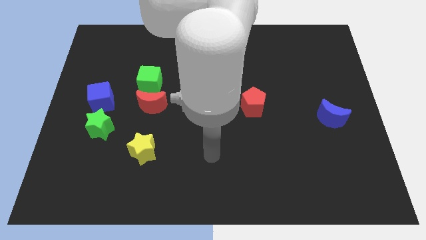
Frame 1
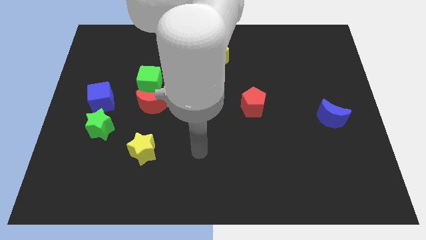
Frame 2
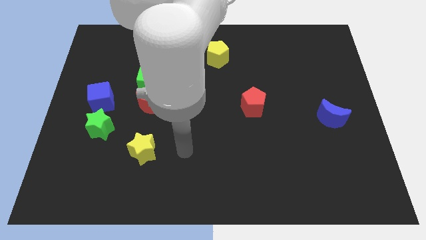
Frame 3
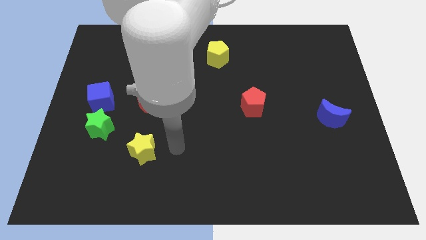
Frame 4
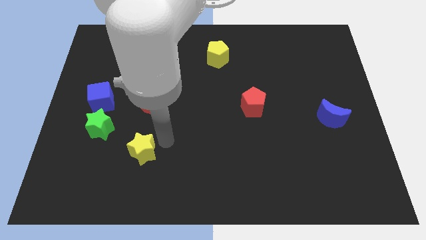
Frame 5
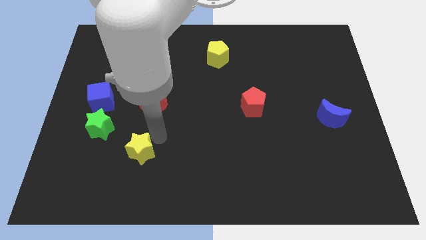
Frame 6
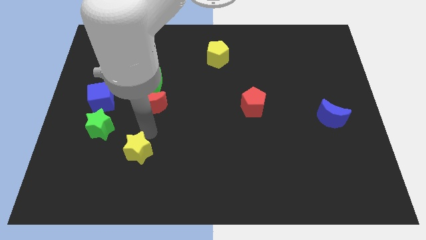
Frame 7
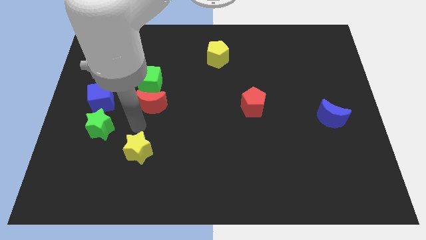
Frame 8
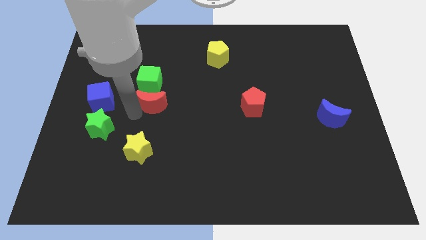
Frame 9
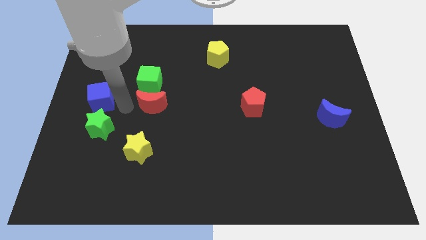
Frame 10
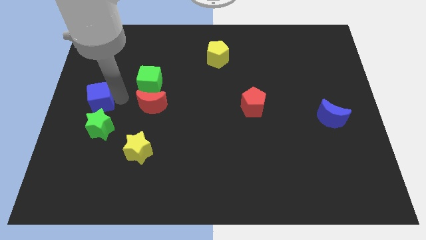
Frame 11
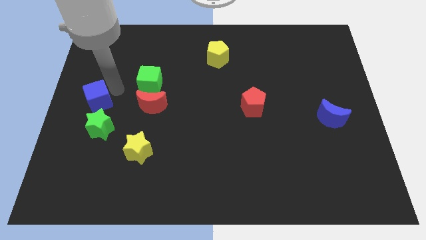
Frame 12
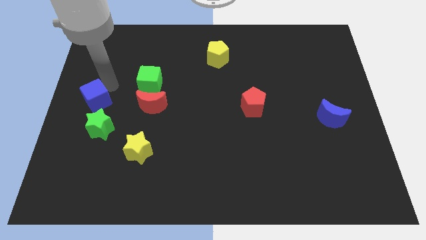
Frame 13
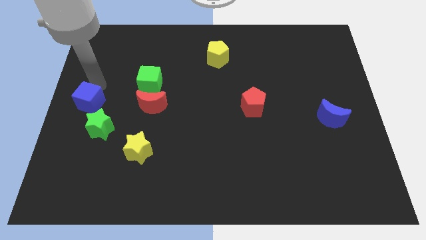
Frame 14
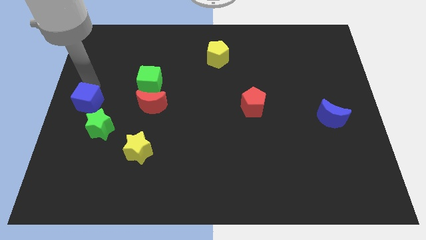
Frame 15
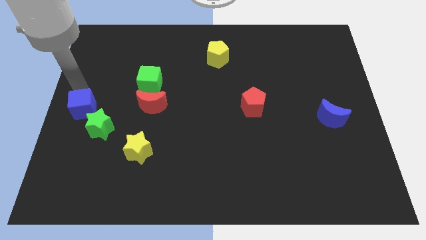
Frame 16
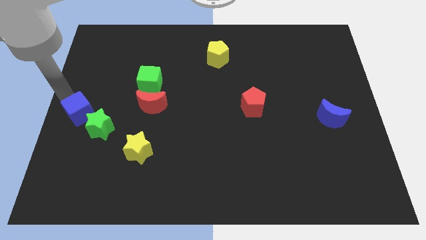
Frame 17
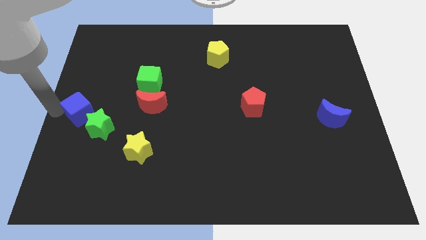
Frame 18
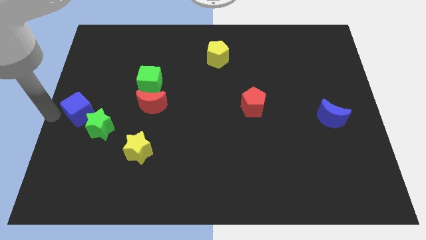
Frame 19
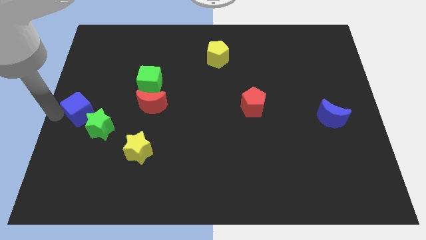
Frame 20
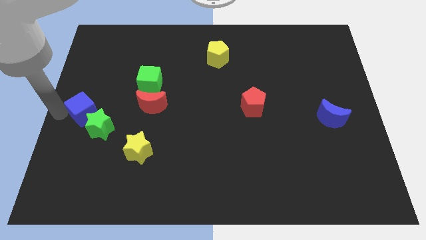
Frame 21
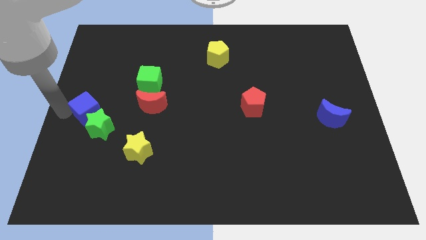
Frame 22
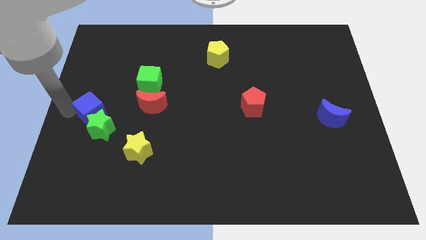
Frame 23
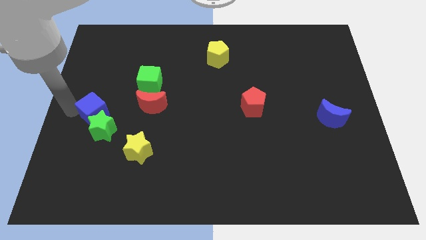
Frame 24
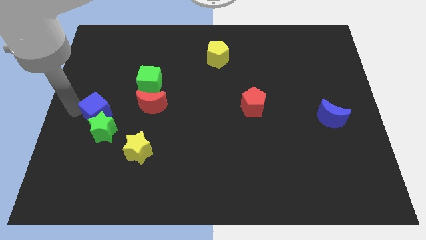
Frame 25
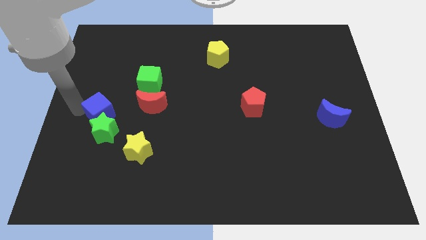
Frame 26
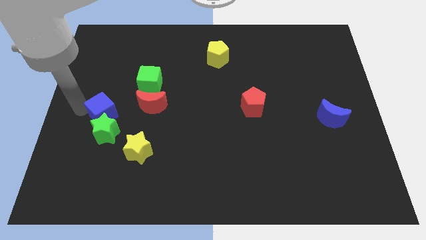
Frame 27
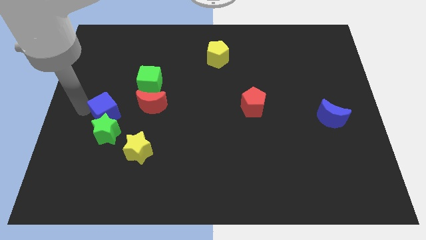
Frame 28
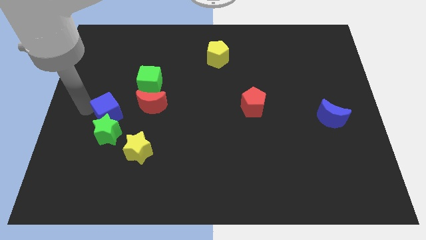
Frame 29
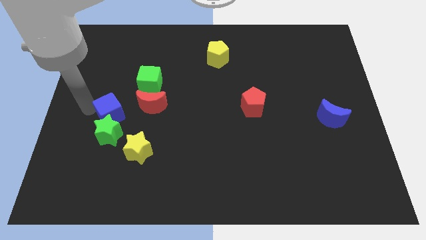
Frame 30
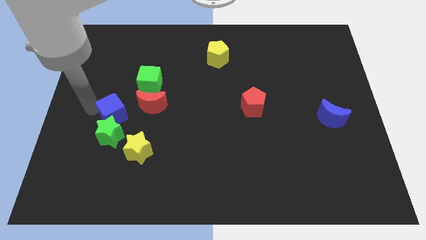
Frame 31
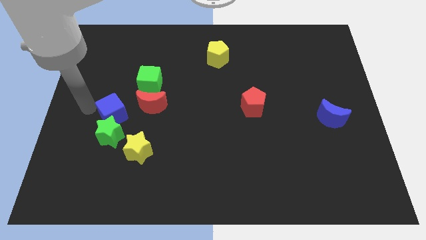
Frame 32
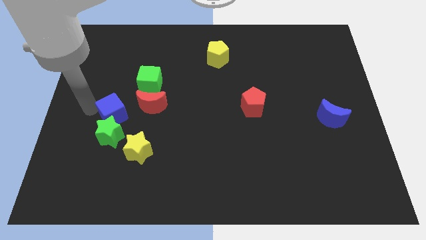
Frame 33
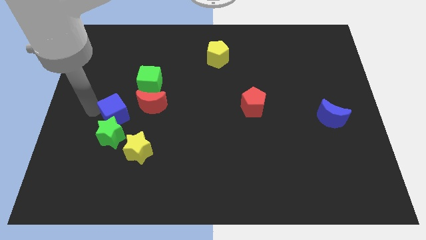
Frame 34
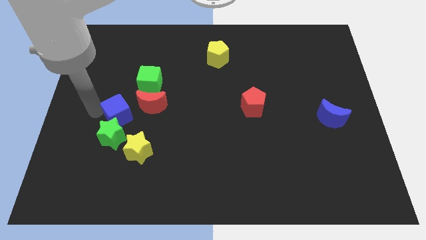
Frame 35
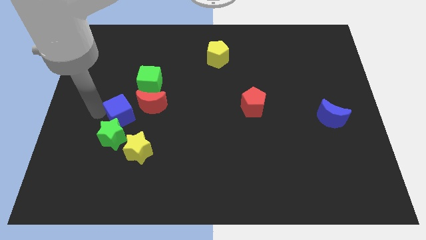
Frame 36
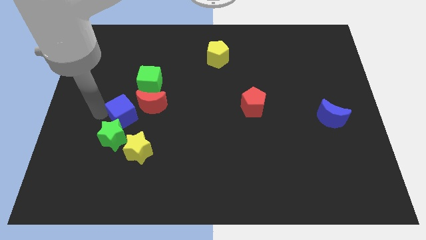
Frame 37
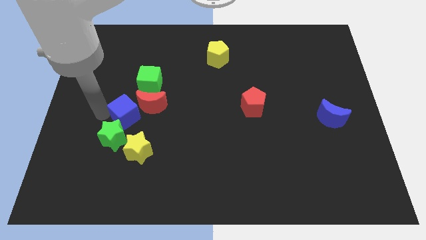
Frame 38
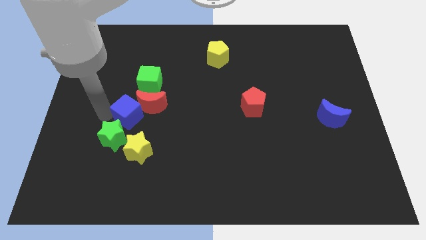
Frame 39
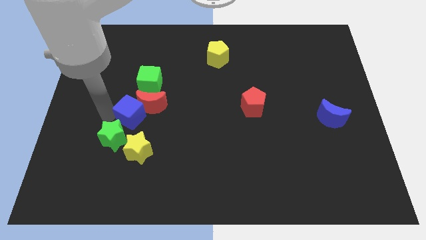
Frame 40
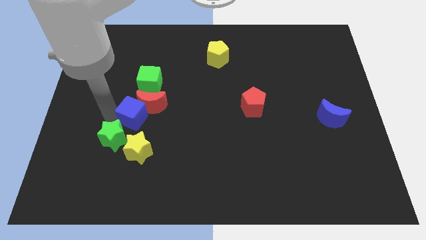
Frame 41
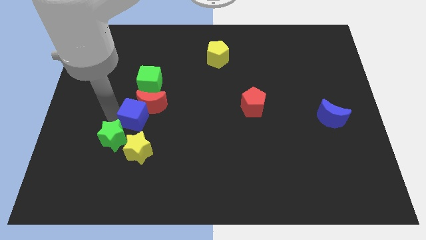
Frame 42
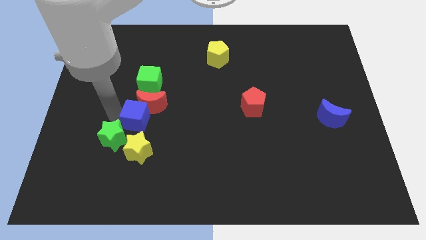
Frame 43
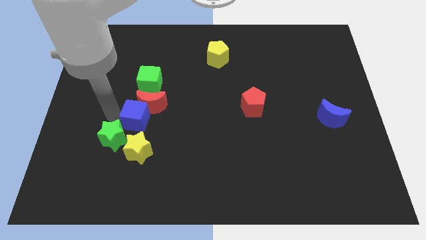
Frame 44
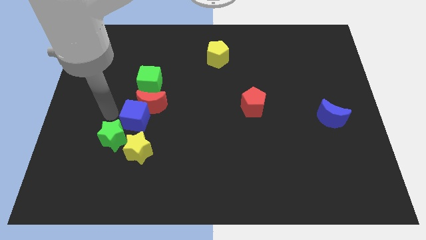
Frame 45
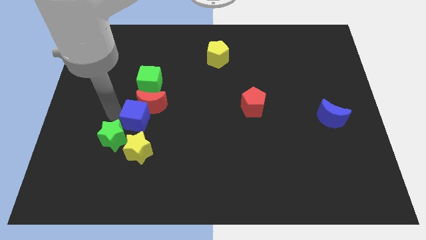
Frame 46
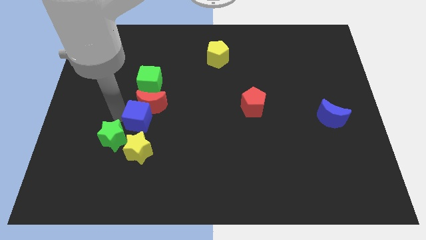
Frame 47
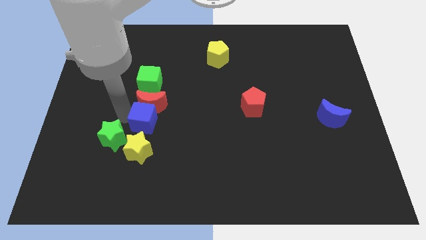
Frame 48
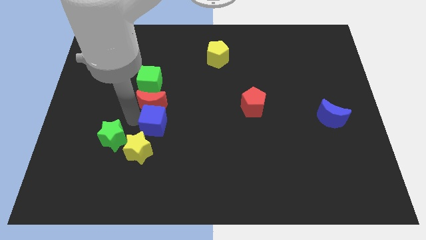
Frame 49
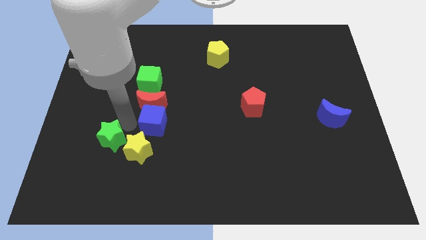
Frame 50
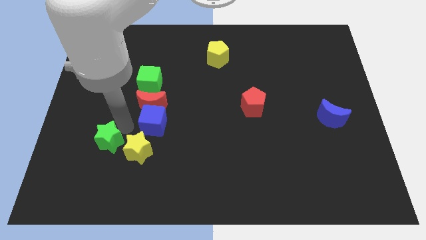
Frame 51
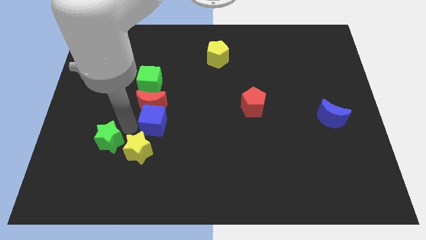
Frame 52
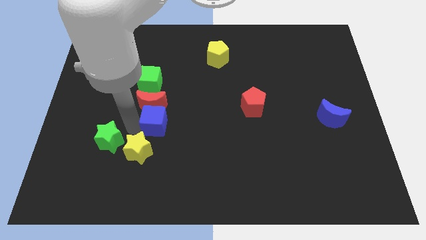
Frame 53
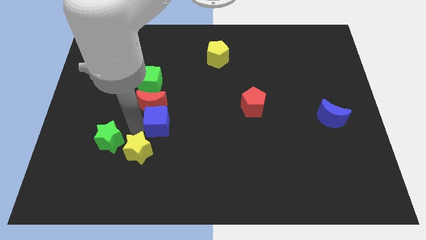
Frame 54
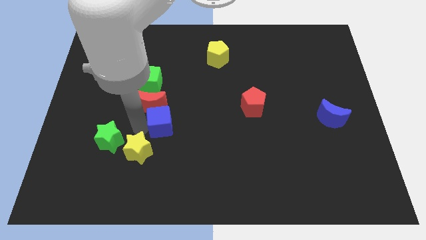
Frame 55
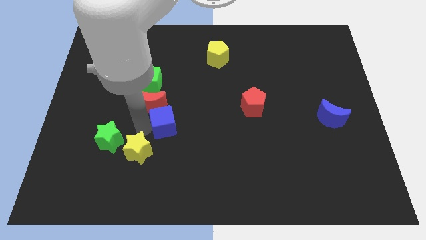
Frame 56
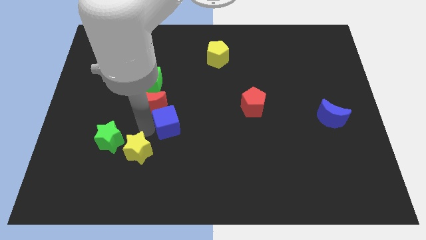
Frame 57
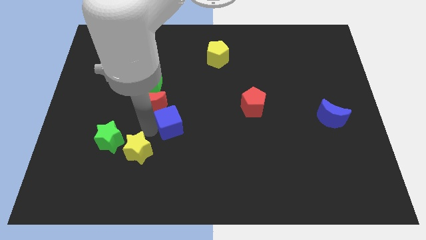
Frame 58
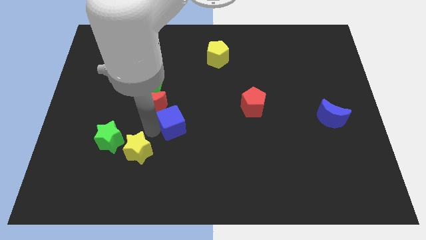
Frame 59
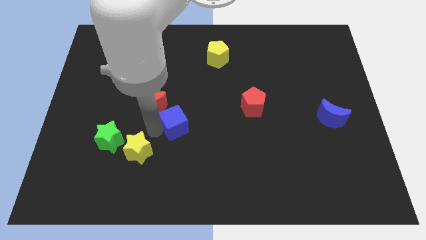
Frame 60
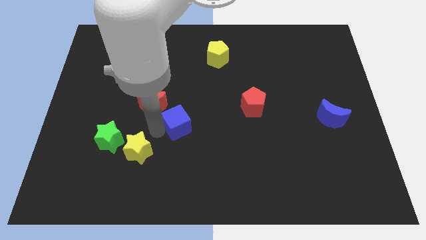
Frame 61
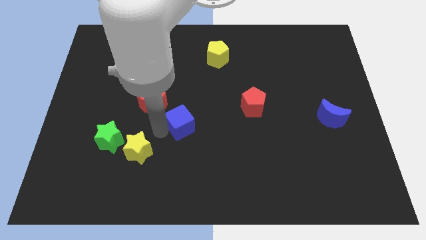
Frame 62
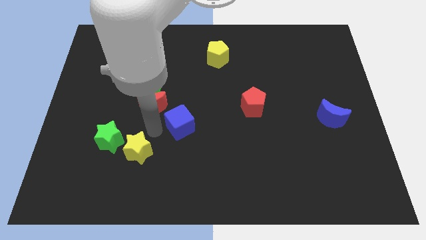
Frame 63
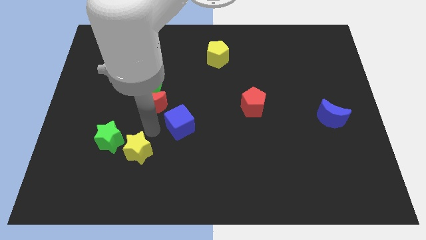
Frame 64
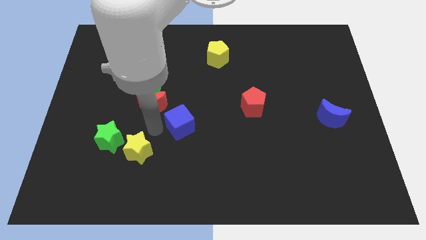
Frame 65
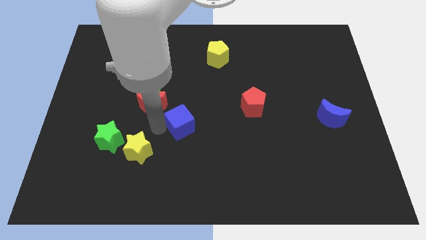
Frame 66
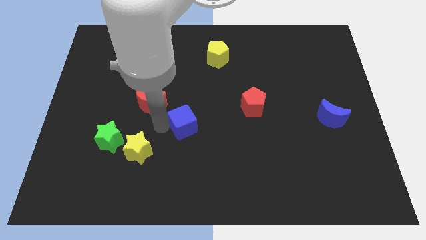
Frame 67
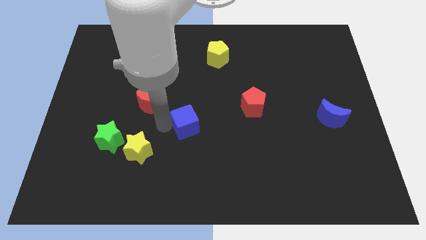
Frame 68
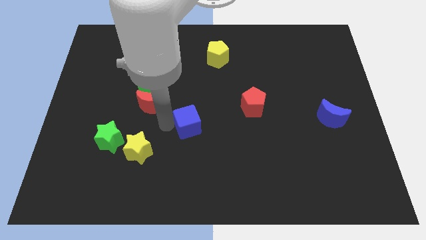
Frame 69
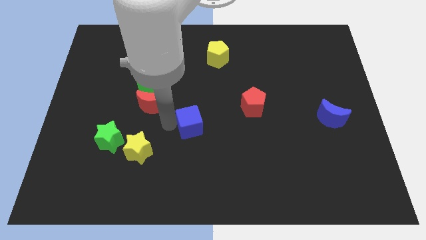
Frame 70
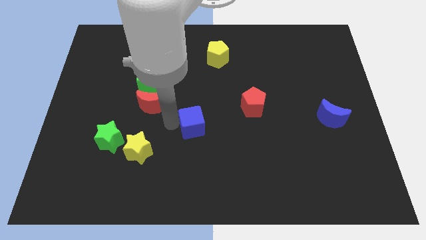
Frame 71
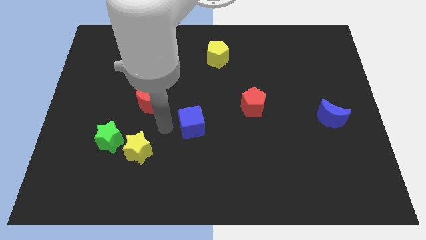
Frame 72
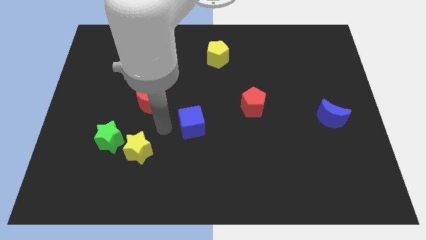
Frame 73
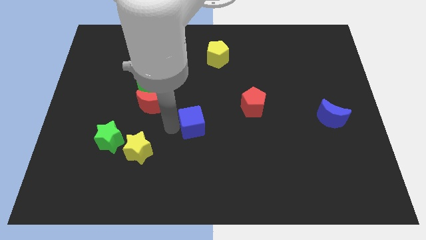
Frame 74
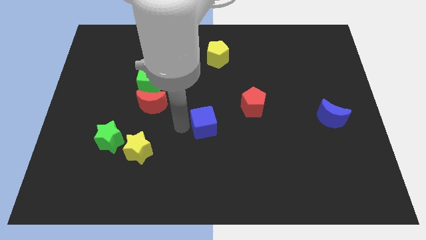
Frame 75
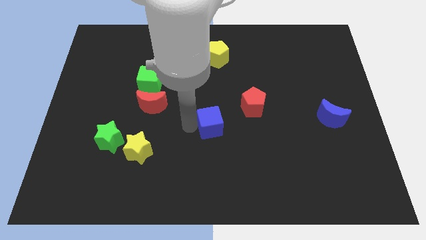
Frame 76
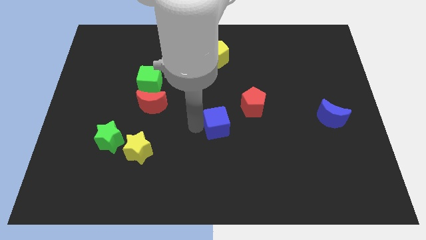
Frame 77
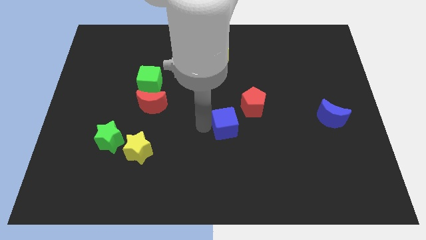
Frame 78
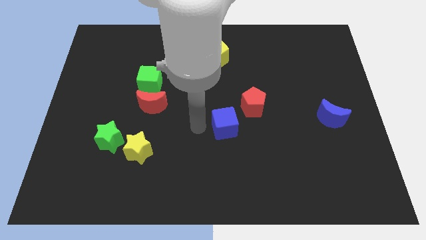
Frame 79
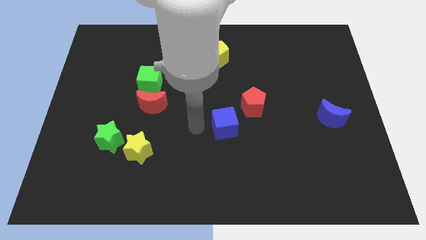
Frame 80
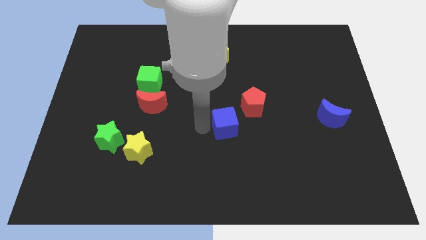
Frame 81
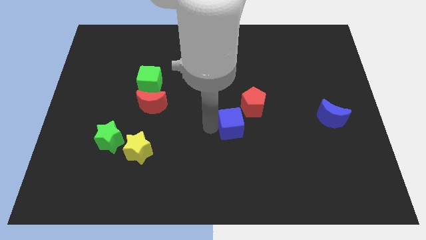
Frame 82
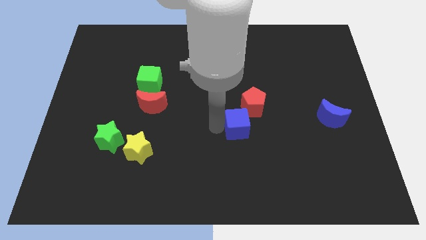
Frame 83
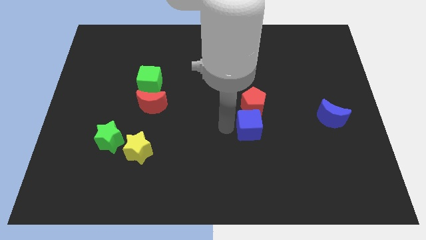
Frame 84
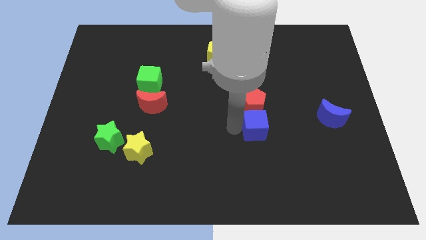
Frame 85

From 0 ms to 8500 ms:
slide the blue cube to the bottom right of the red pentagon
